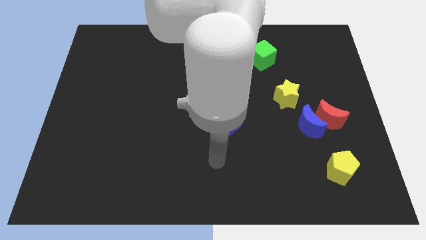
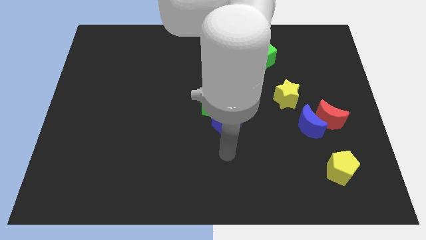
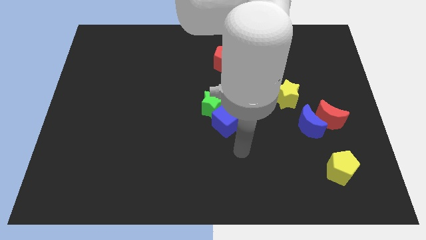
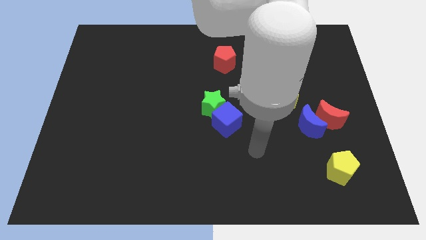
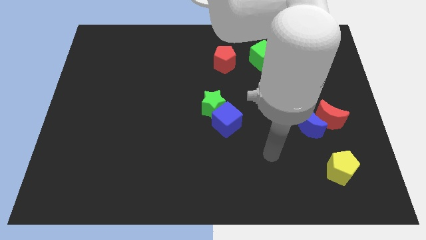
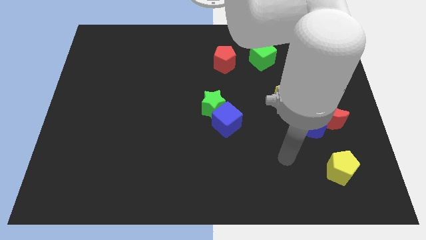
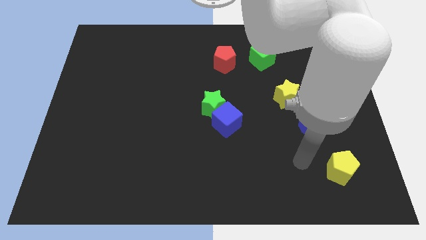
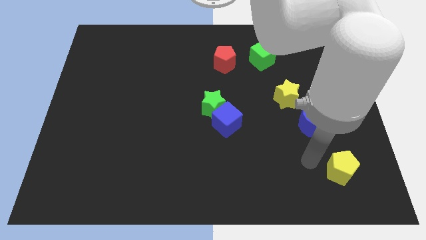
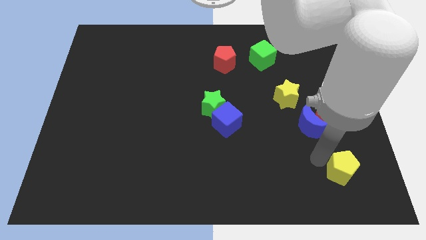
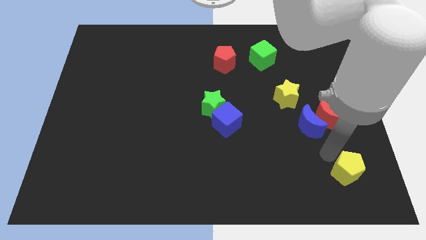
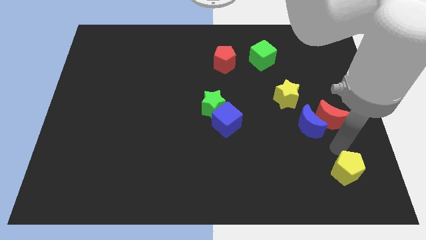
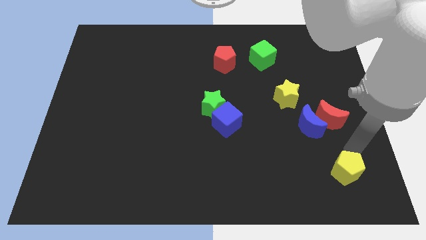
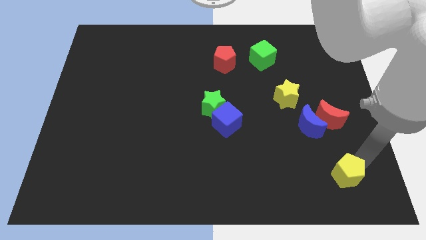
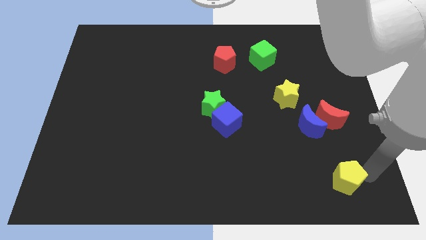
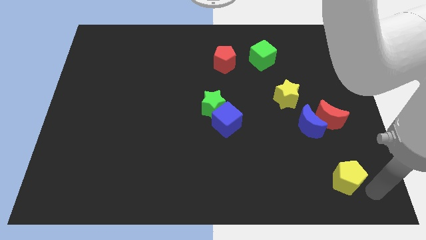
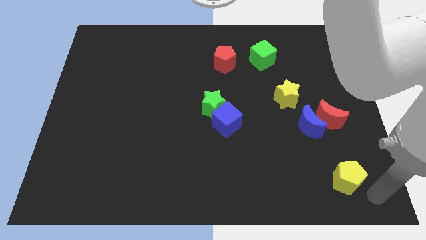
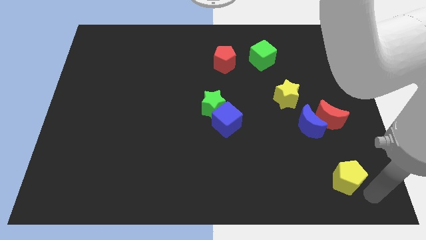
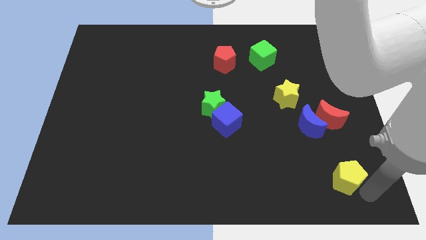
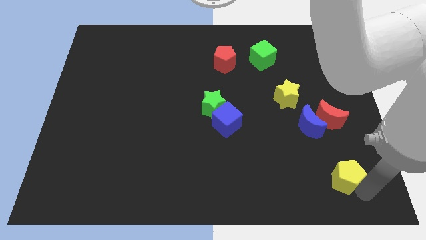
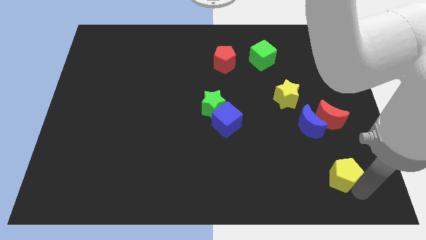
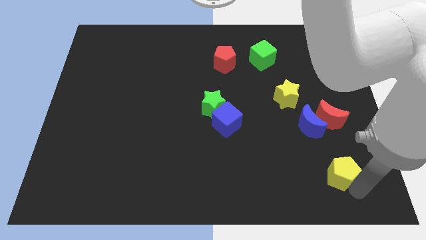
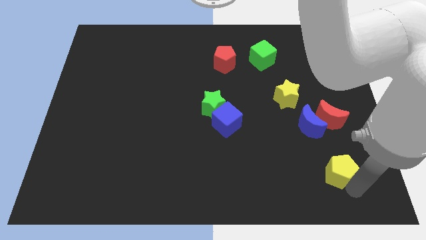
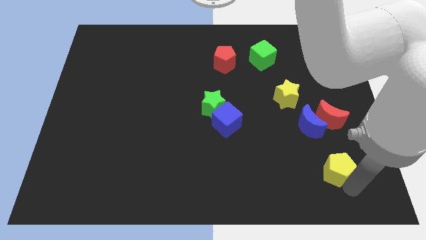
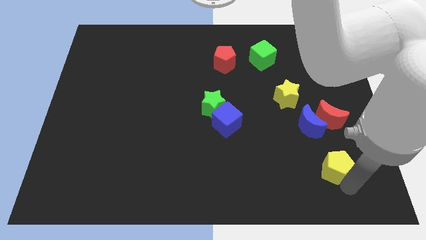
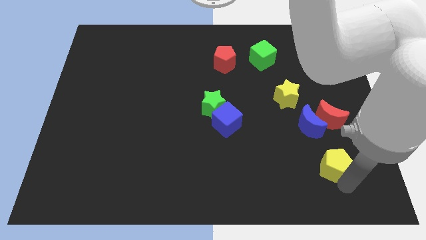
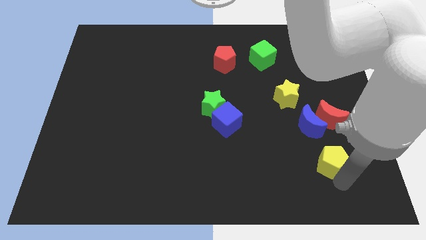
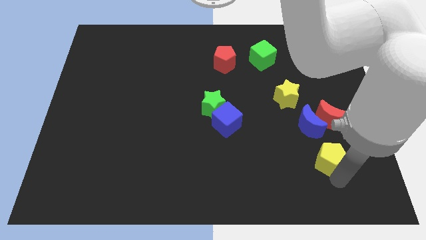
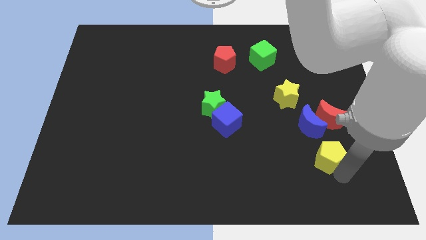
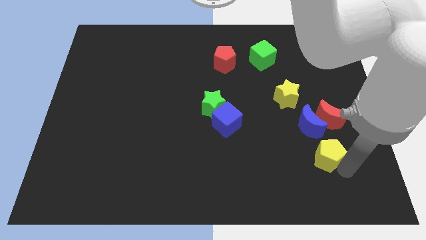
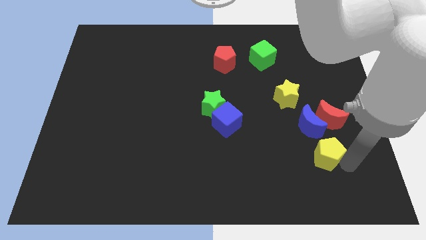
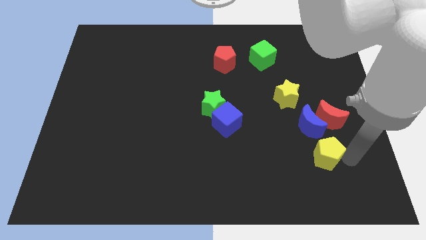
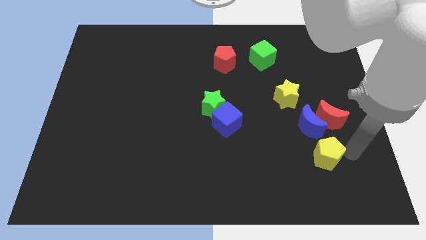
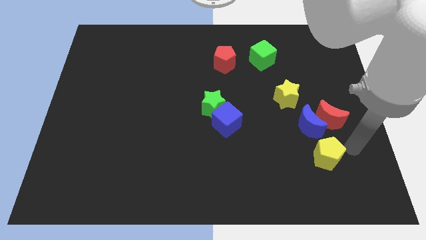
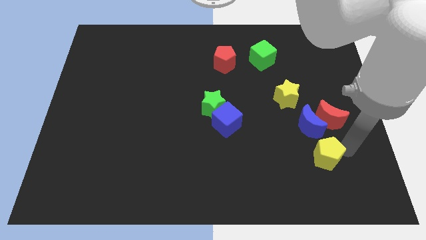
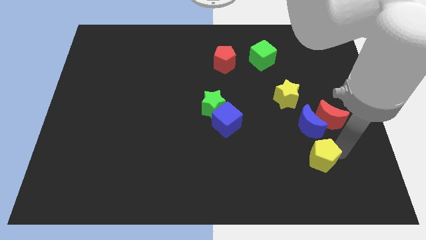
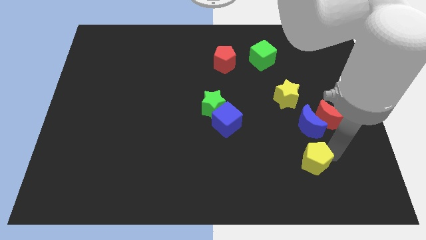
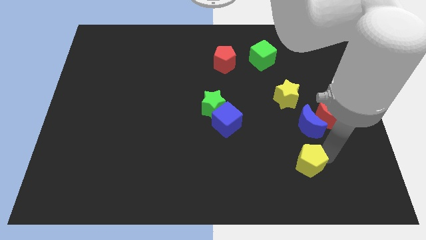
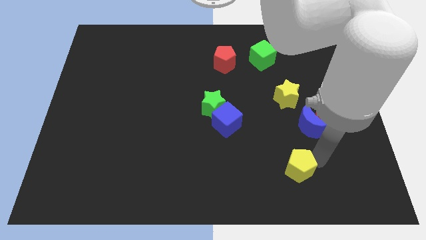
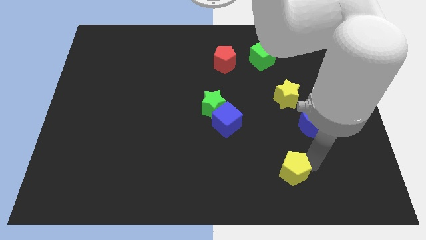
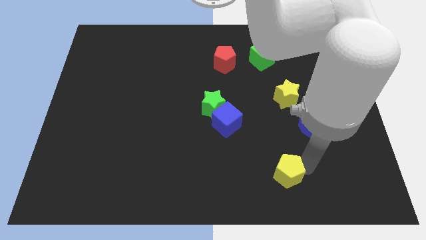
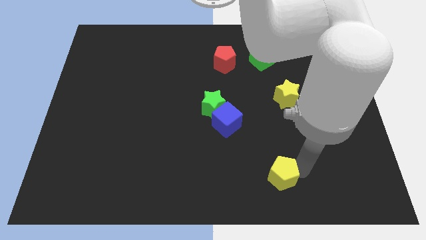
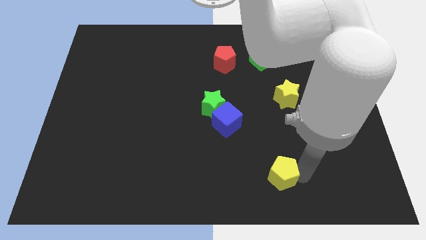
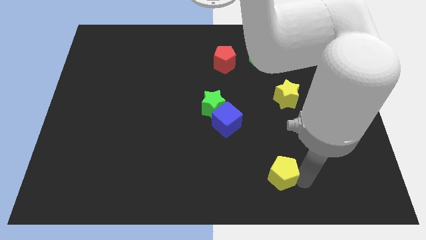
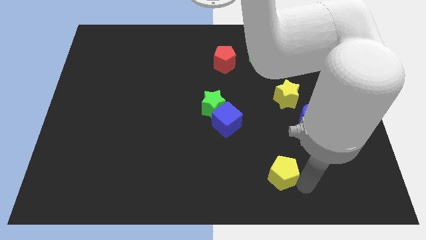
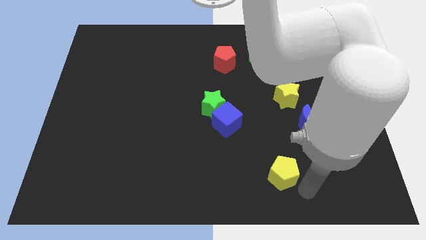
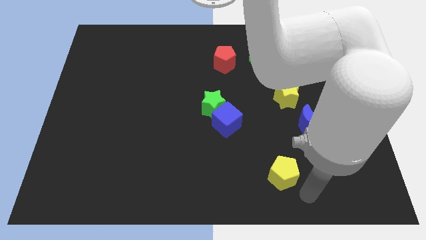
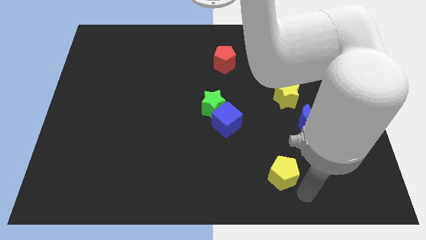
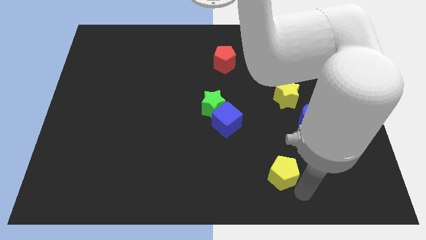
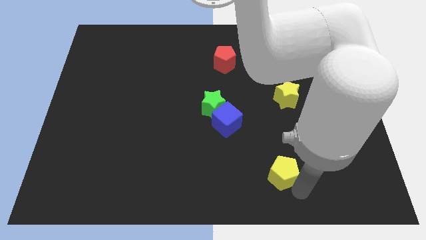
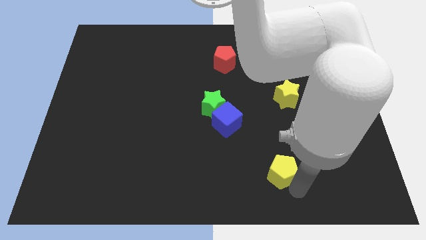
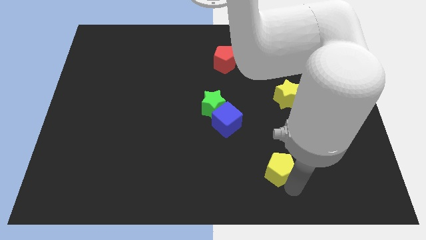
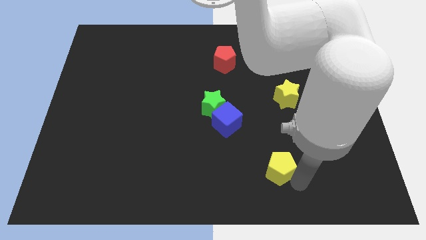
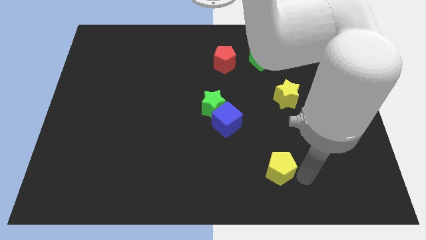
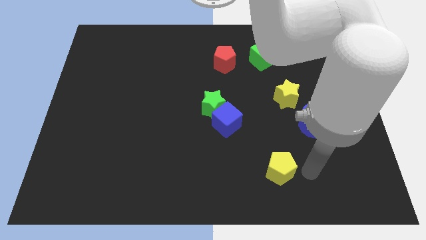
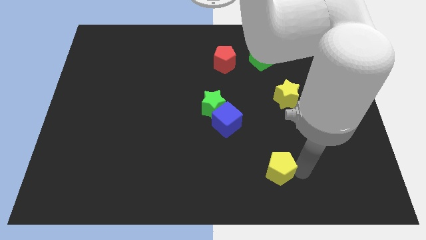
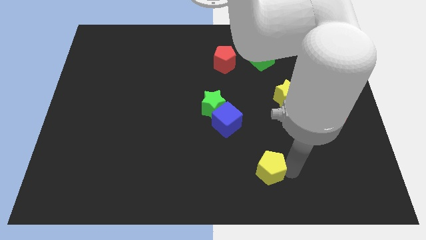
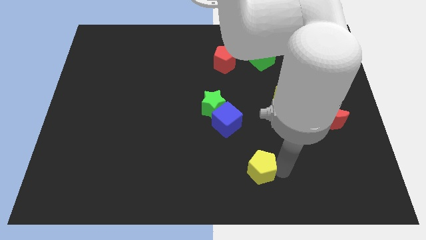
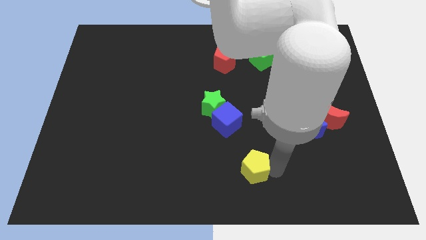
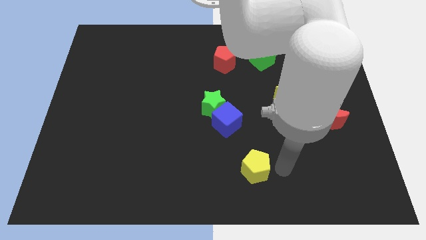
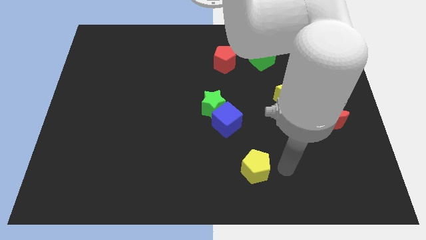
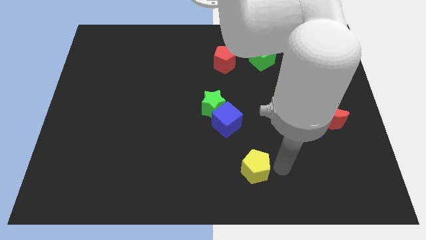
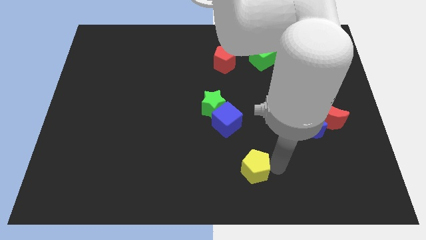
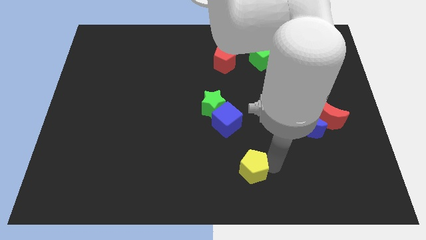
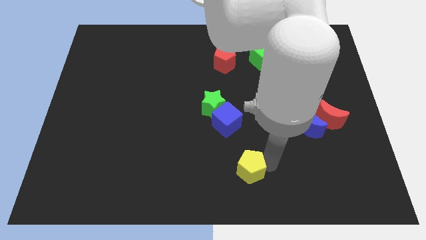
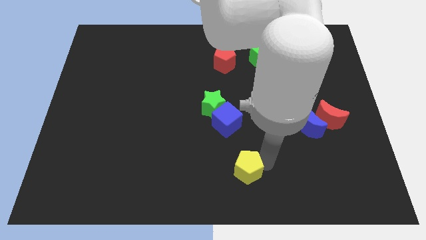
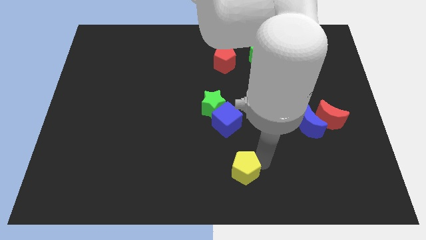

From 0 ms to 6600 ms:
slide the yellow pentagon to the left

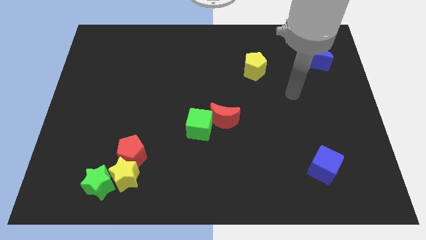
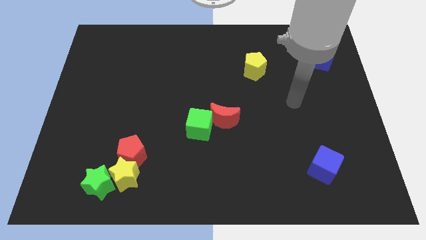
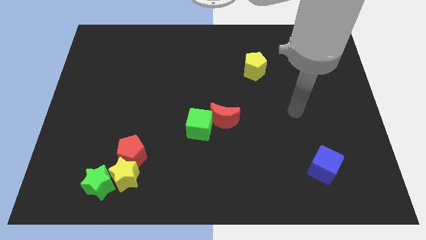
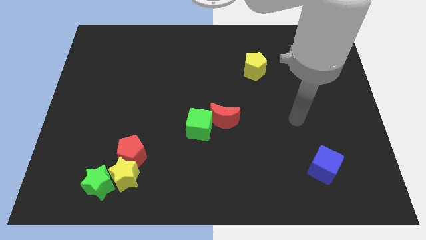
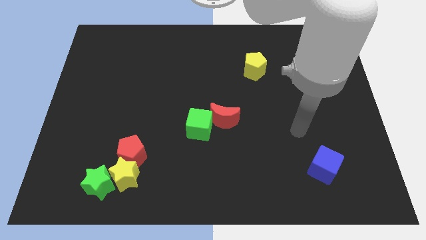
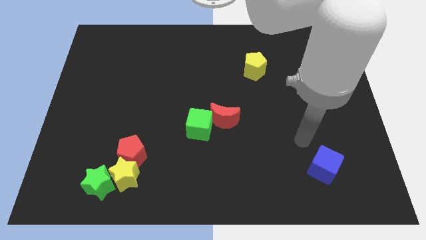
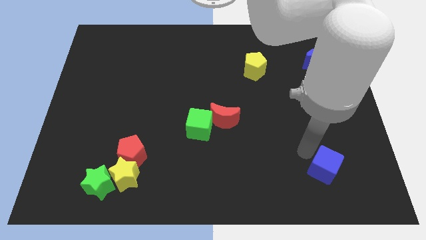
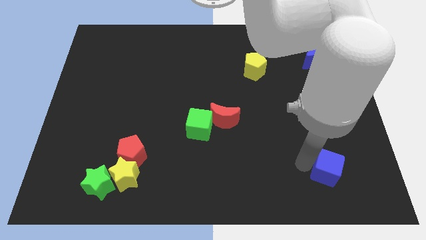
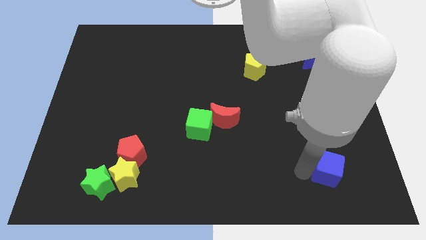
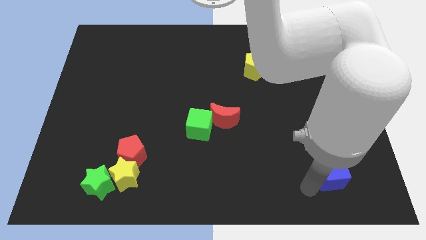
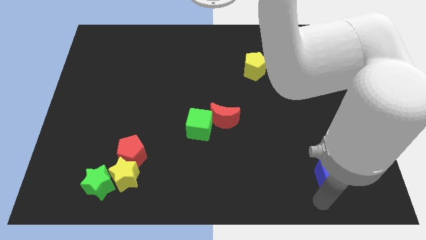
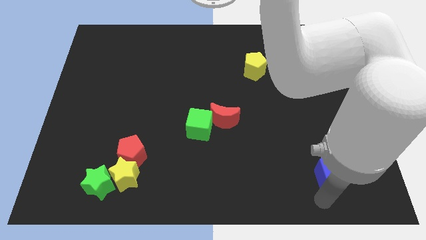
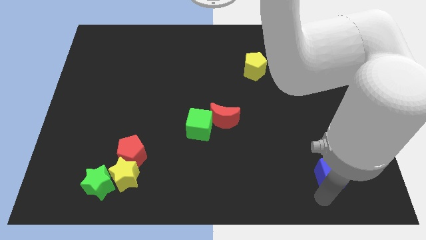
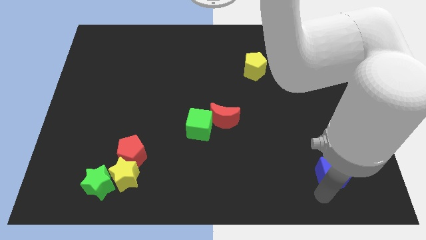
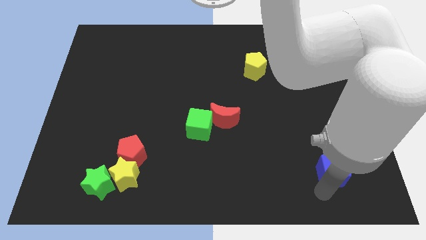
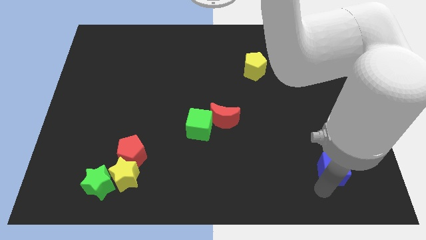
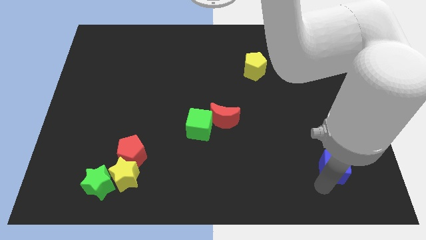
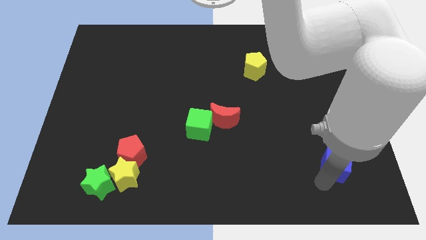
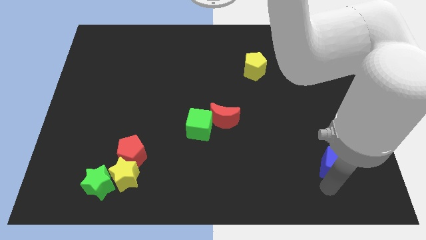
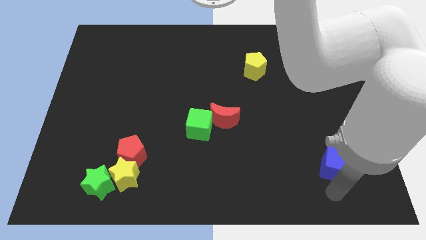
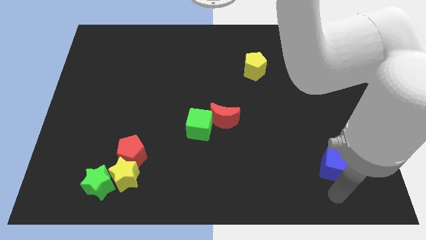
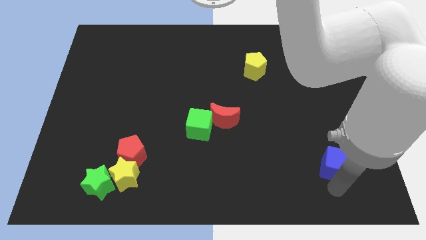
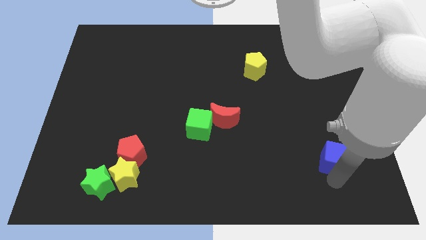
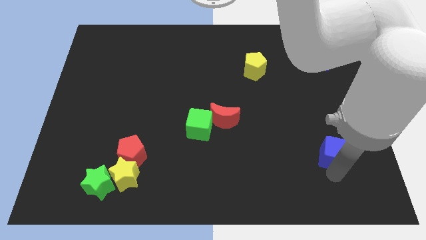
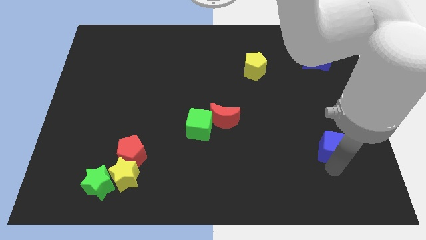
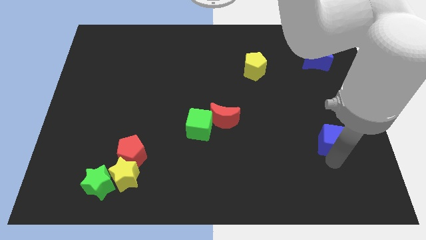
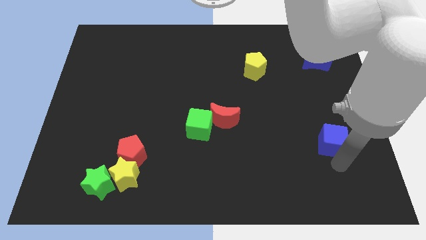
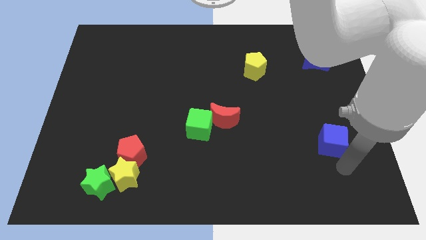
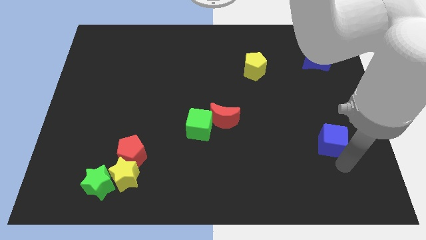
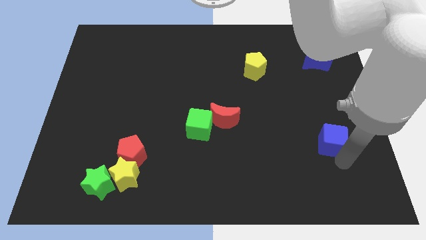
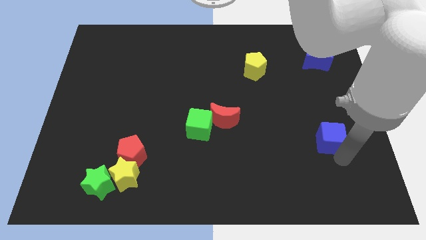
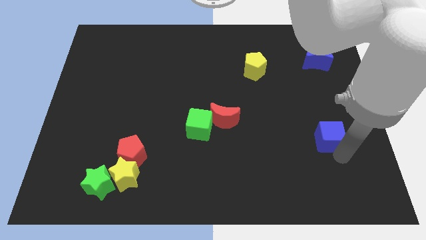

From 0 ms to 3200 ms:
move the blue cube upwards somewhat
